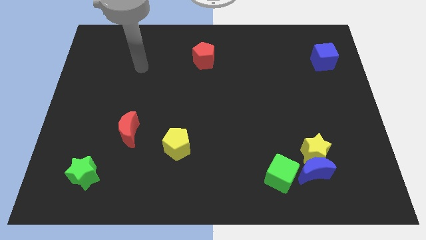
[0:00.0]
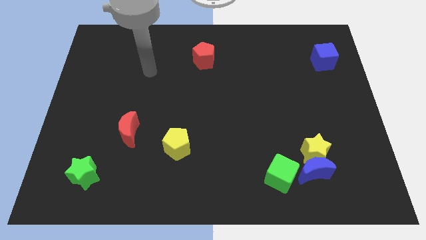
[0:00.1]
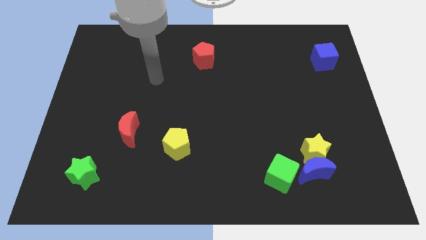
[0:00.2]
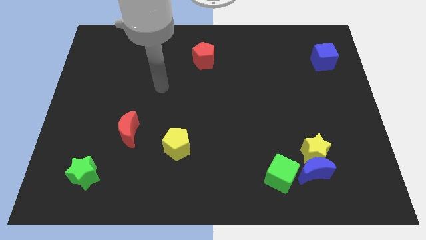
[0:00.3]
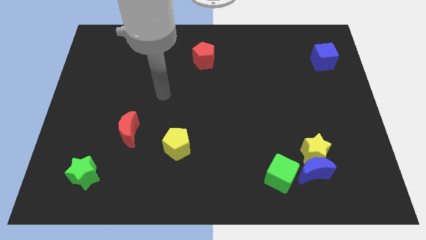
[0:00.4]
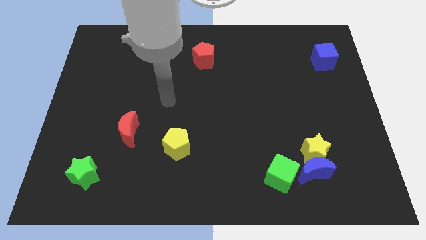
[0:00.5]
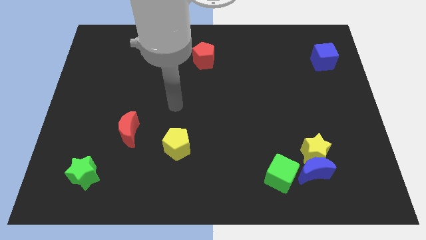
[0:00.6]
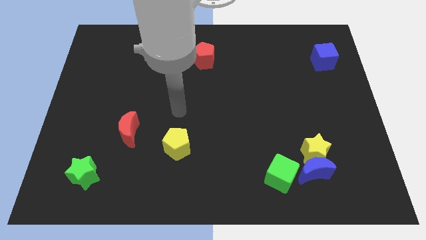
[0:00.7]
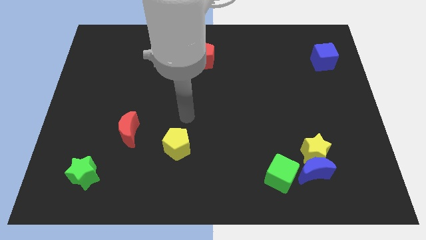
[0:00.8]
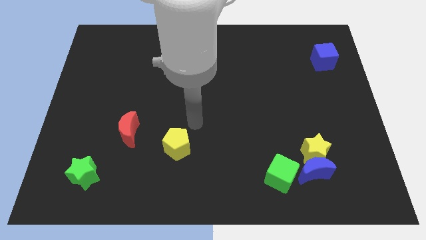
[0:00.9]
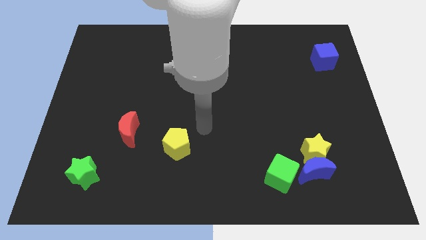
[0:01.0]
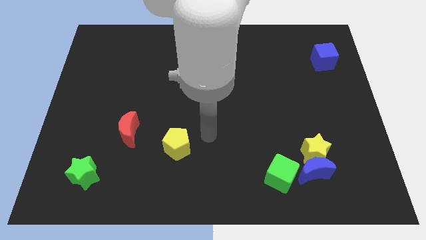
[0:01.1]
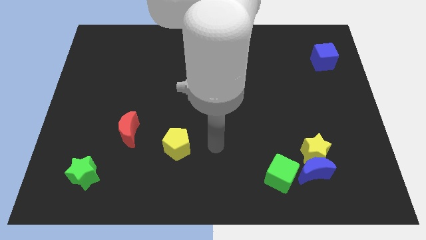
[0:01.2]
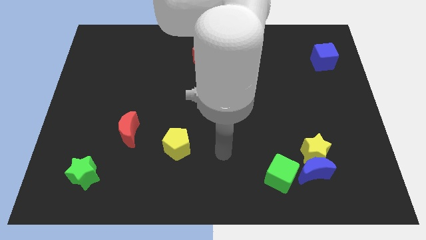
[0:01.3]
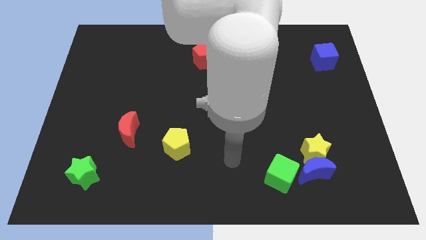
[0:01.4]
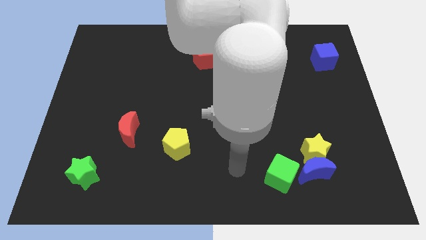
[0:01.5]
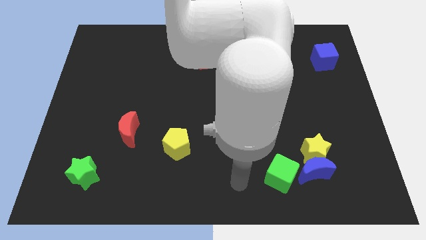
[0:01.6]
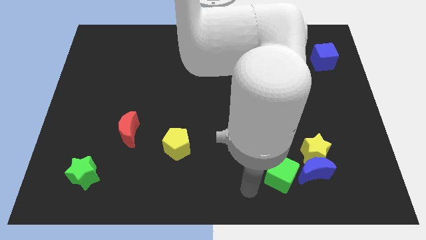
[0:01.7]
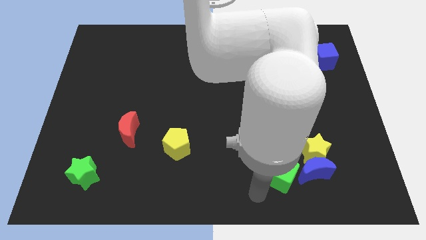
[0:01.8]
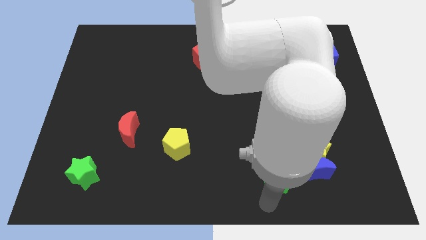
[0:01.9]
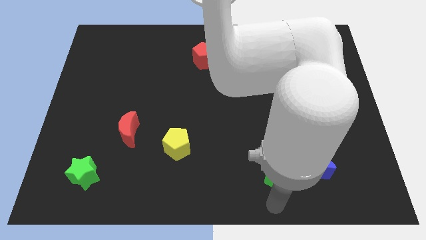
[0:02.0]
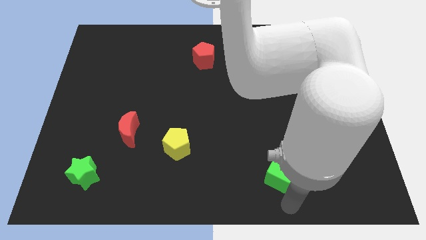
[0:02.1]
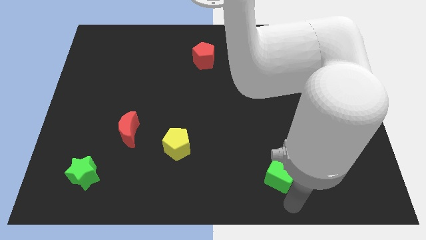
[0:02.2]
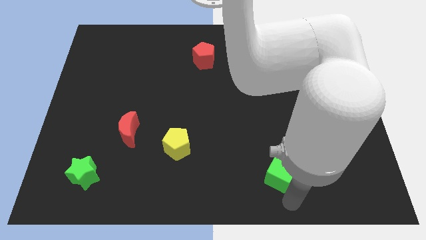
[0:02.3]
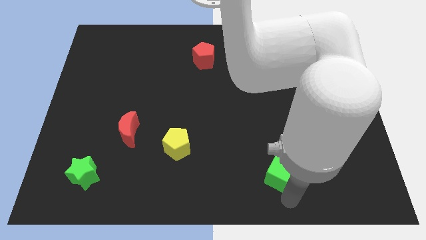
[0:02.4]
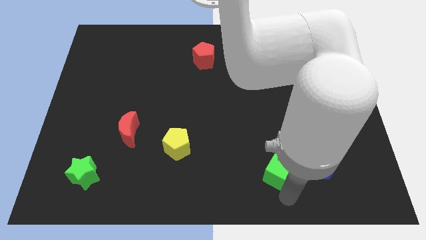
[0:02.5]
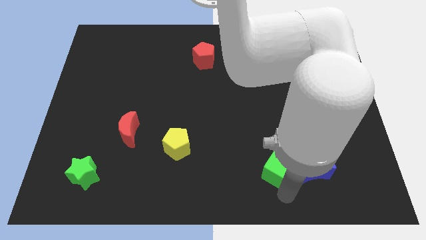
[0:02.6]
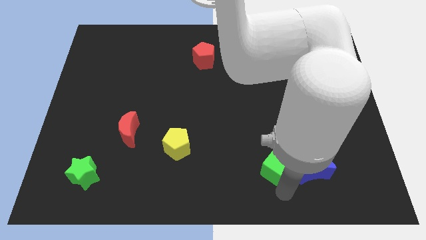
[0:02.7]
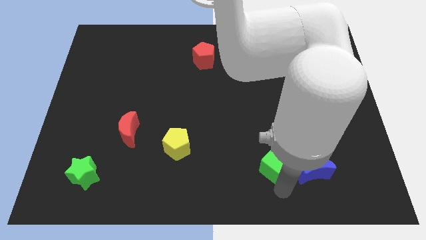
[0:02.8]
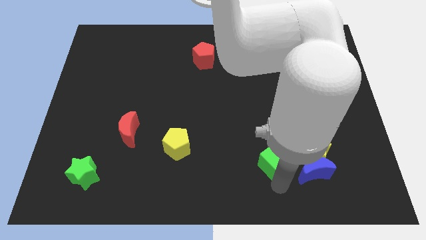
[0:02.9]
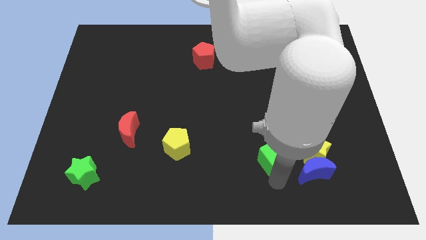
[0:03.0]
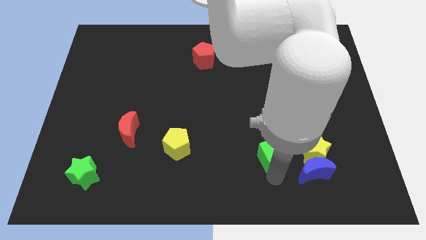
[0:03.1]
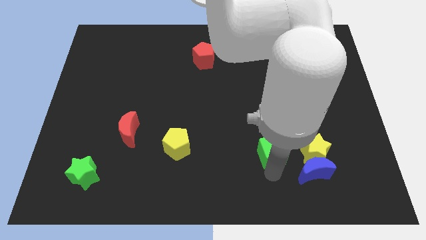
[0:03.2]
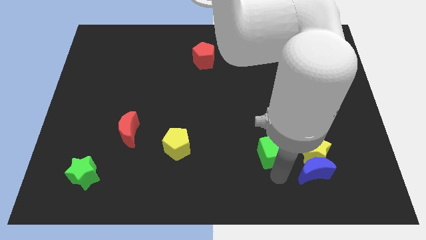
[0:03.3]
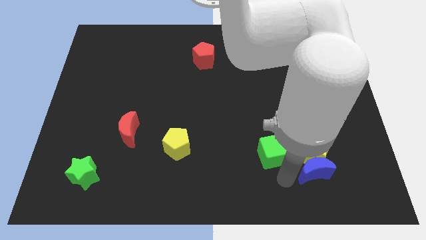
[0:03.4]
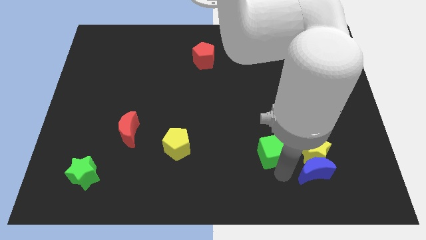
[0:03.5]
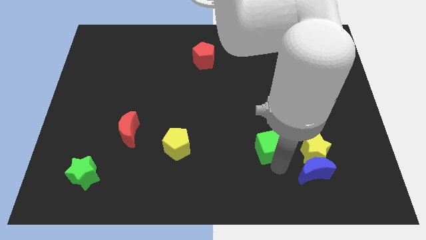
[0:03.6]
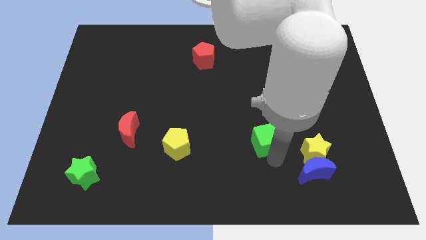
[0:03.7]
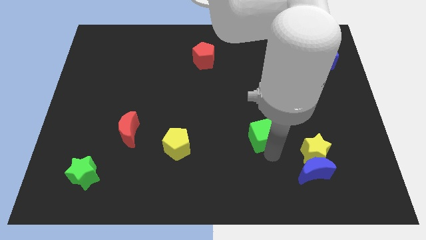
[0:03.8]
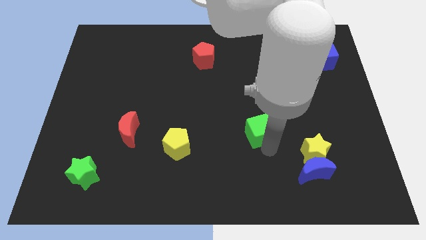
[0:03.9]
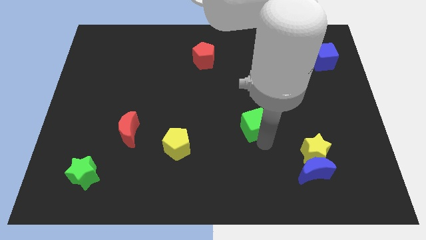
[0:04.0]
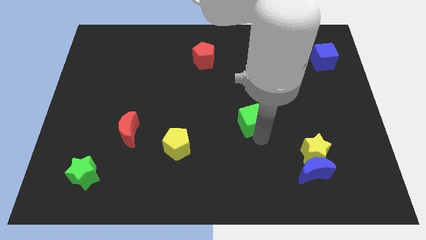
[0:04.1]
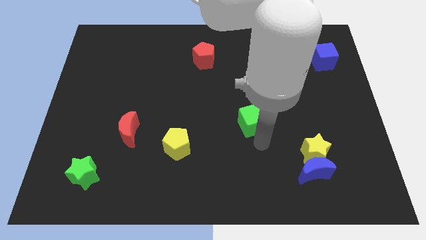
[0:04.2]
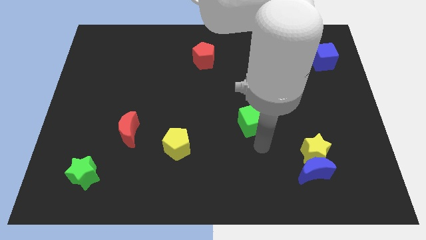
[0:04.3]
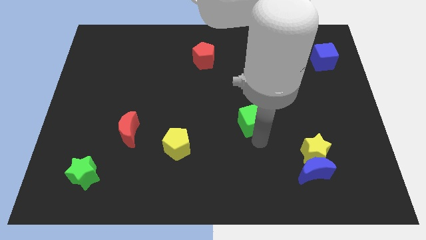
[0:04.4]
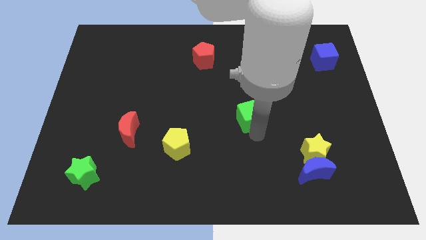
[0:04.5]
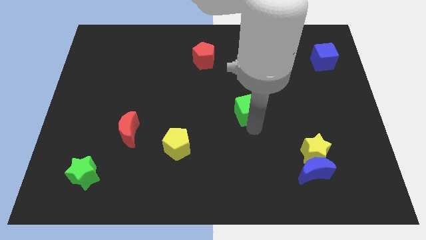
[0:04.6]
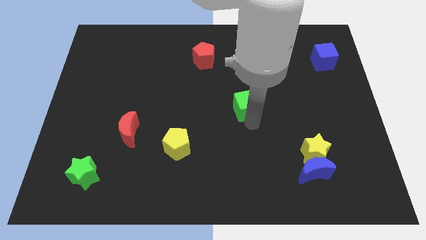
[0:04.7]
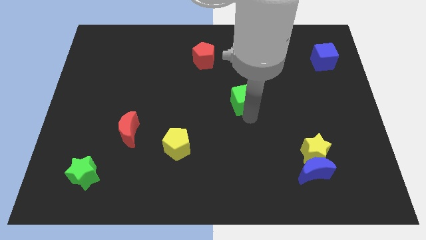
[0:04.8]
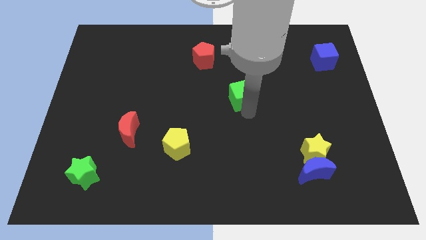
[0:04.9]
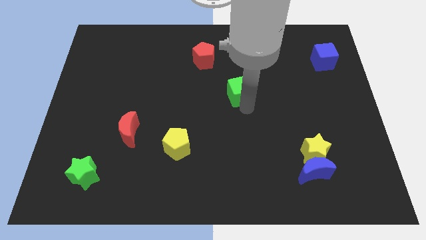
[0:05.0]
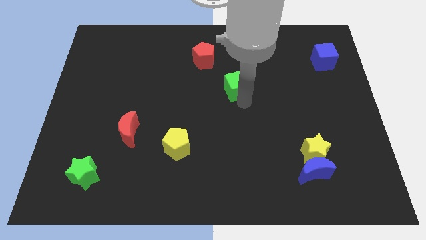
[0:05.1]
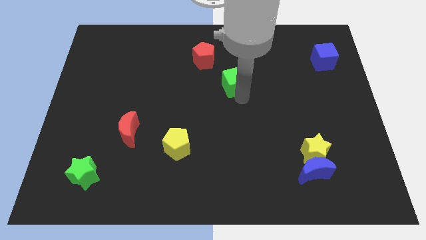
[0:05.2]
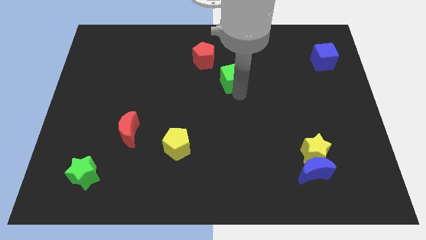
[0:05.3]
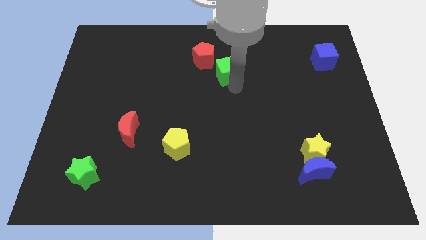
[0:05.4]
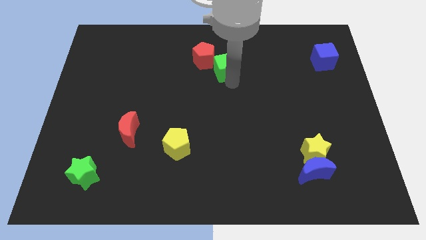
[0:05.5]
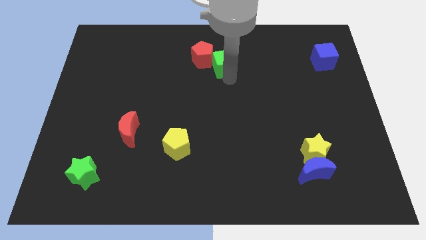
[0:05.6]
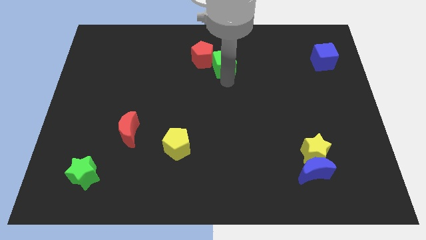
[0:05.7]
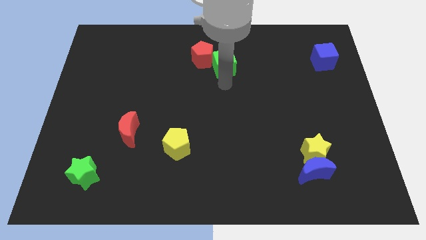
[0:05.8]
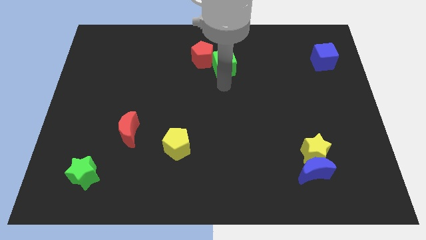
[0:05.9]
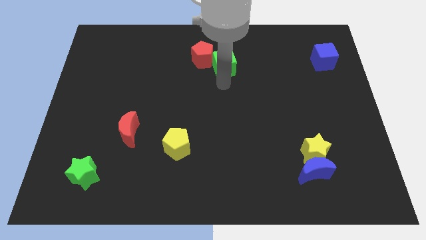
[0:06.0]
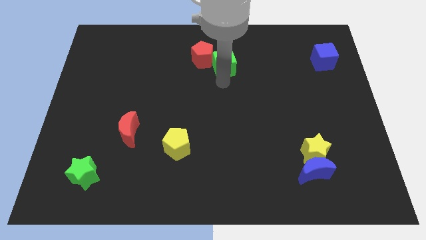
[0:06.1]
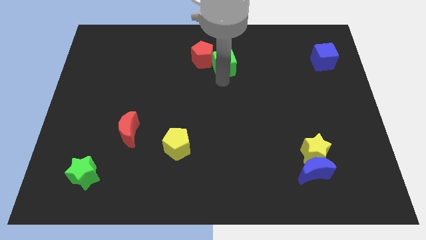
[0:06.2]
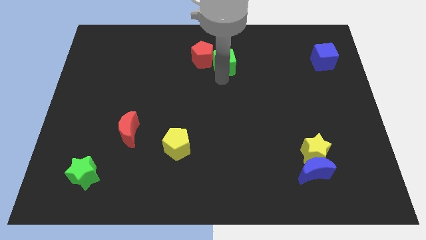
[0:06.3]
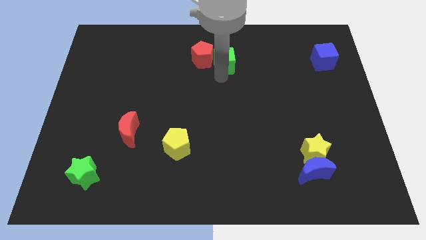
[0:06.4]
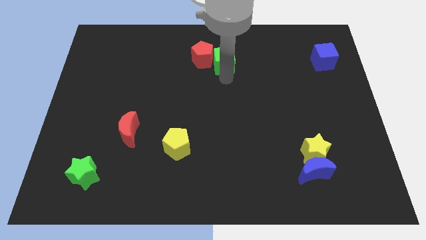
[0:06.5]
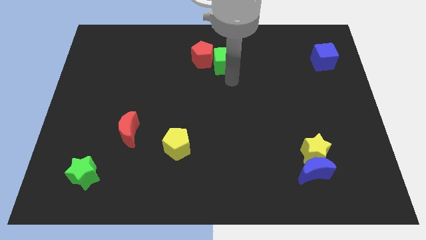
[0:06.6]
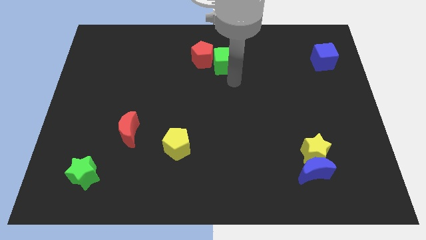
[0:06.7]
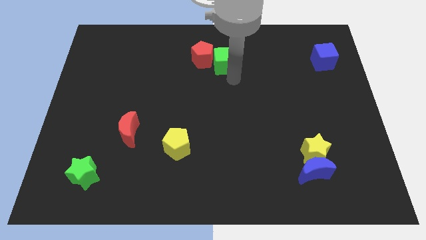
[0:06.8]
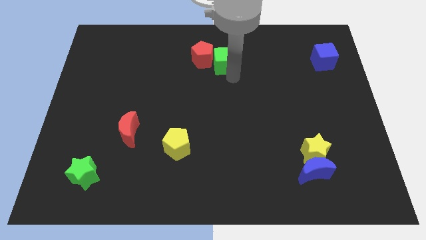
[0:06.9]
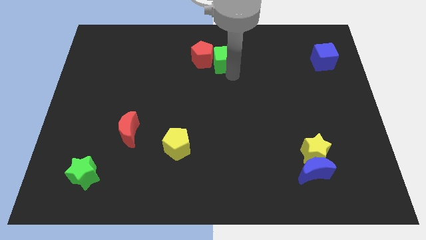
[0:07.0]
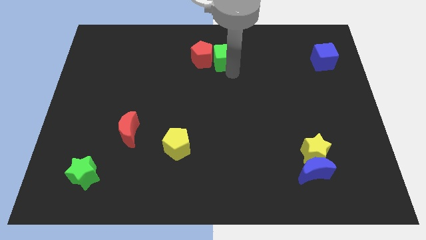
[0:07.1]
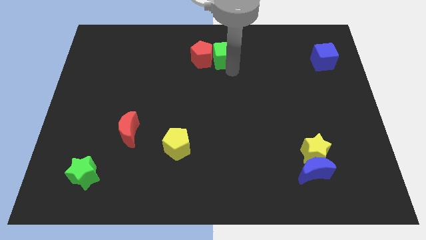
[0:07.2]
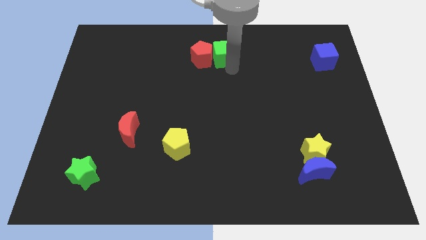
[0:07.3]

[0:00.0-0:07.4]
put the green cube to the top
